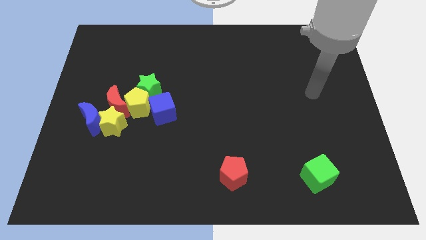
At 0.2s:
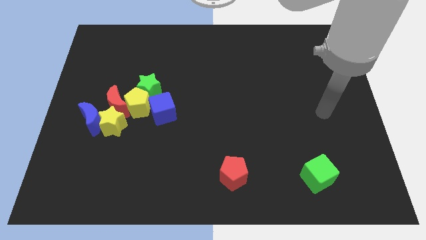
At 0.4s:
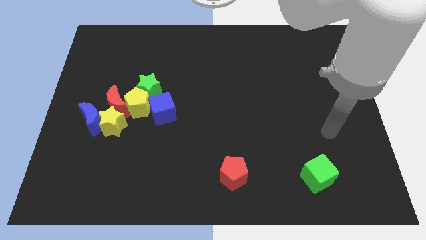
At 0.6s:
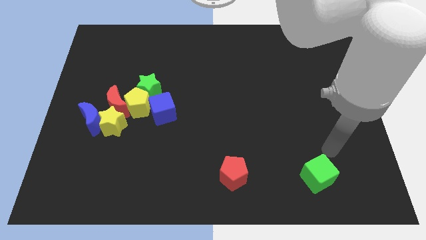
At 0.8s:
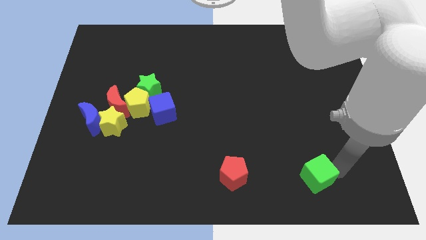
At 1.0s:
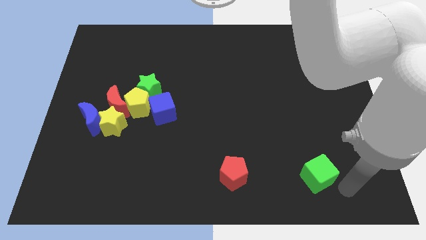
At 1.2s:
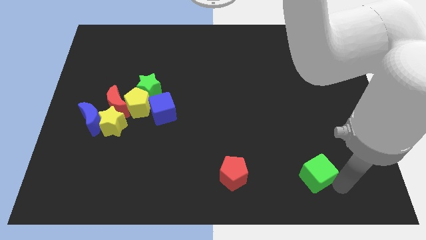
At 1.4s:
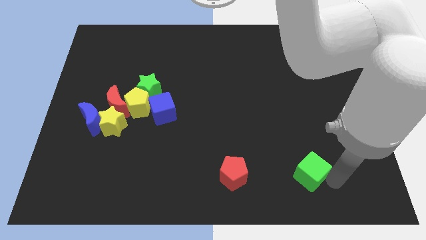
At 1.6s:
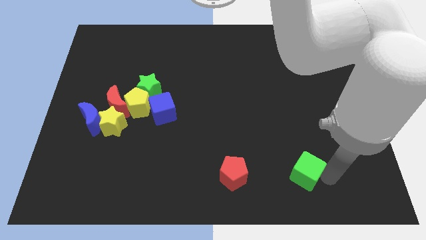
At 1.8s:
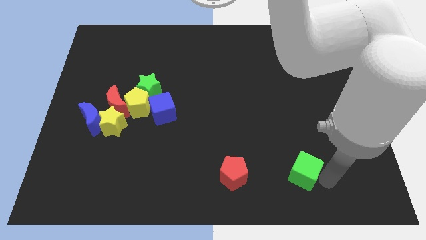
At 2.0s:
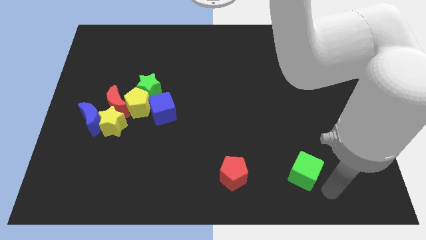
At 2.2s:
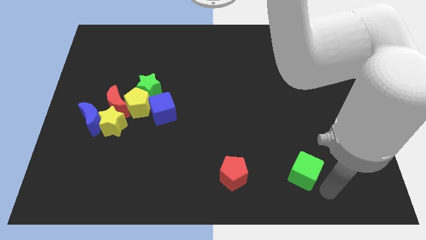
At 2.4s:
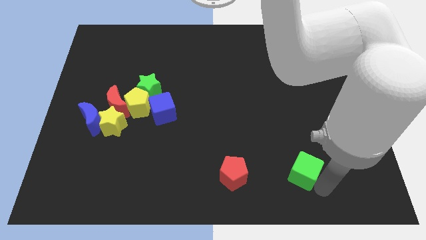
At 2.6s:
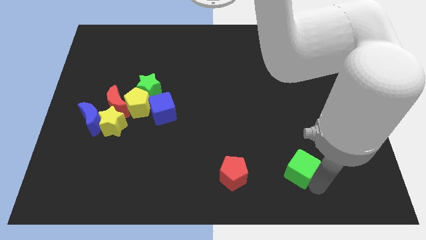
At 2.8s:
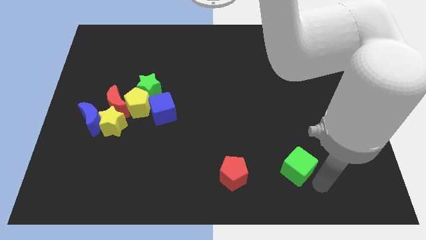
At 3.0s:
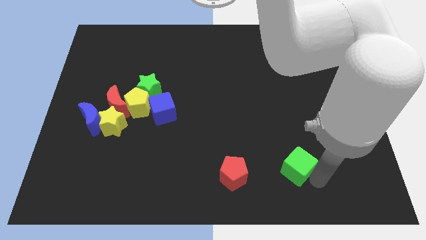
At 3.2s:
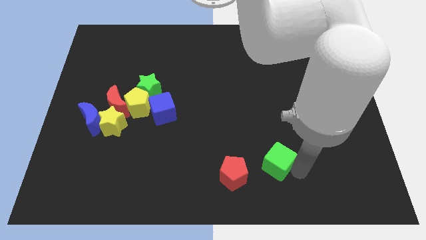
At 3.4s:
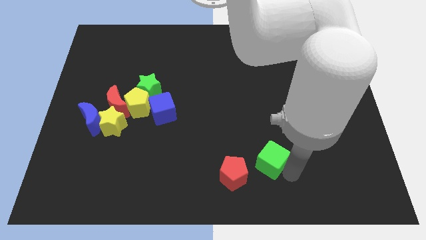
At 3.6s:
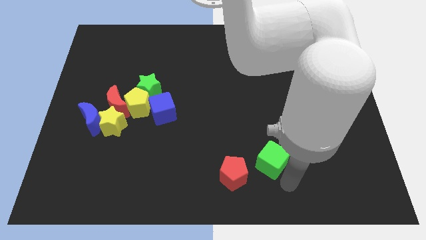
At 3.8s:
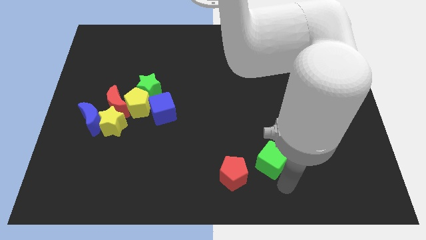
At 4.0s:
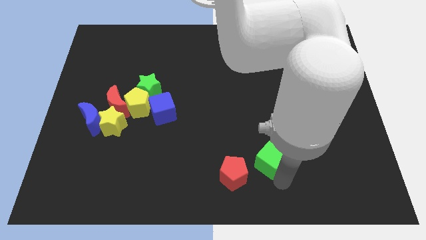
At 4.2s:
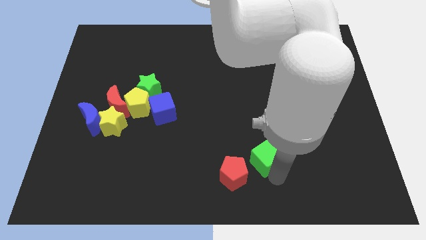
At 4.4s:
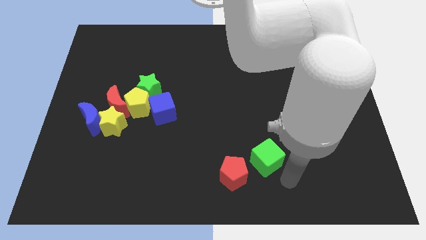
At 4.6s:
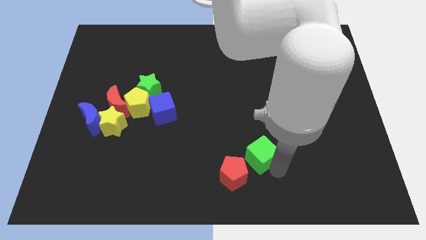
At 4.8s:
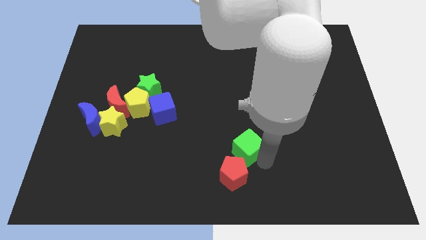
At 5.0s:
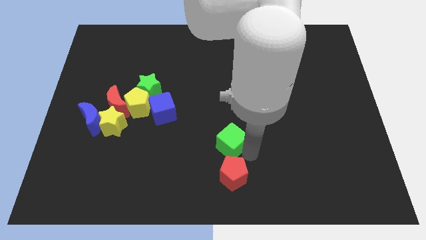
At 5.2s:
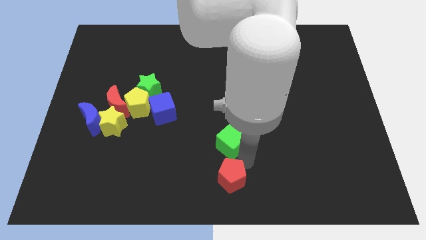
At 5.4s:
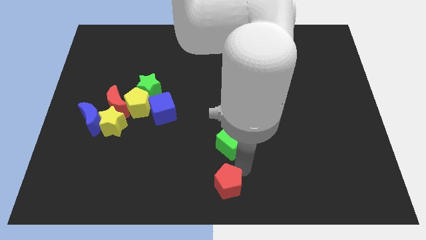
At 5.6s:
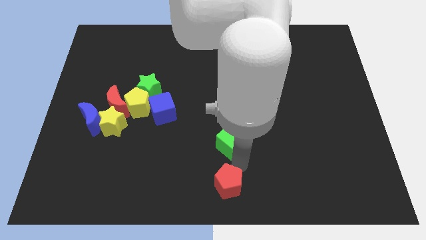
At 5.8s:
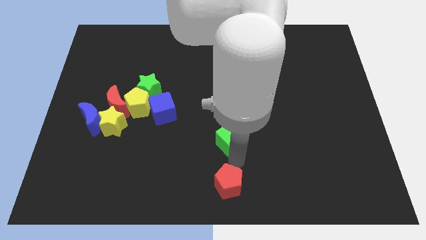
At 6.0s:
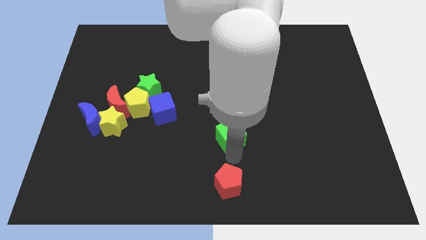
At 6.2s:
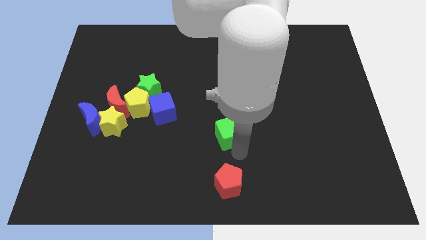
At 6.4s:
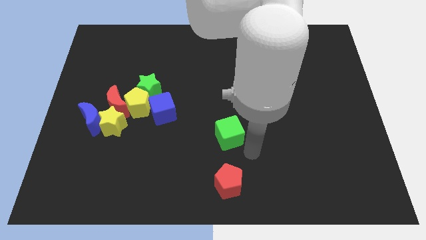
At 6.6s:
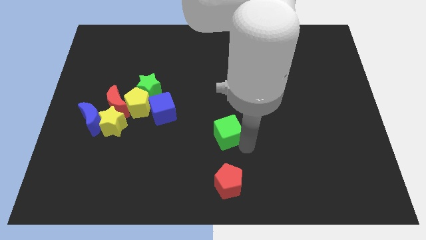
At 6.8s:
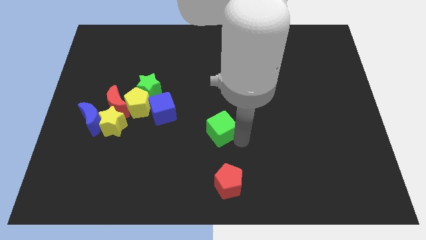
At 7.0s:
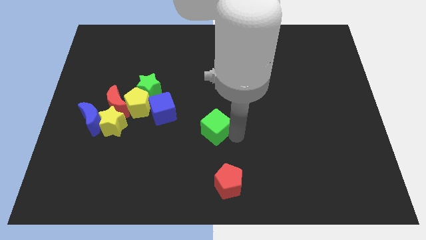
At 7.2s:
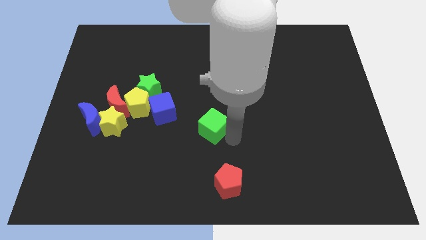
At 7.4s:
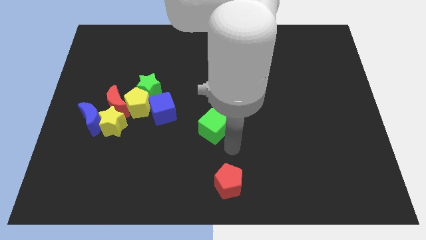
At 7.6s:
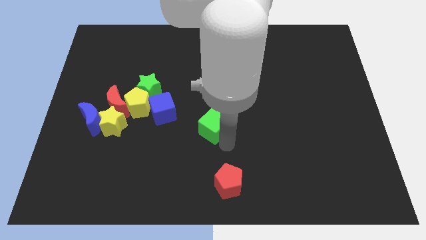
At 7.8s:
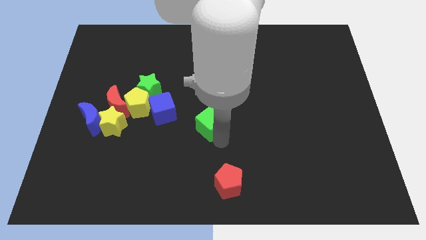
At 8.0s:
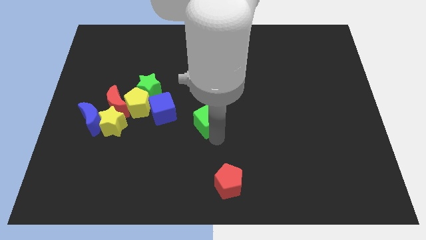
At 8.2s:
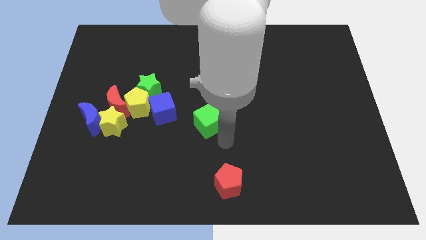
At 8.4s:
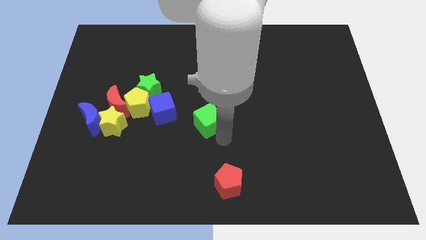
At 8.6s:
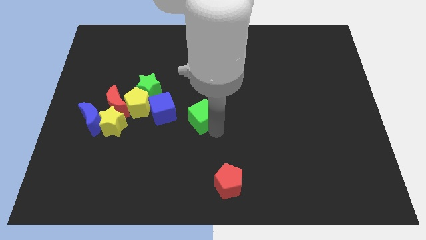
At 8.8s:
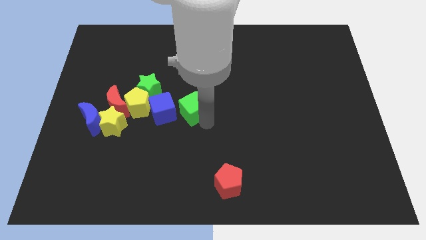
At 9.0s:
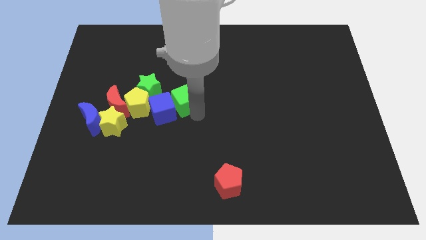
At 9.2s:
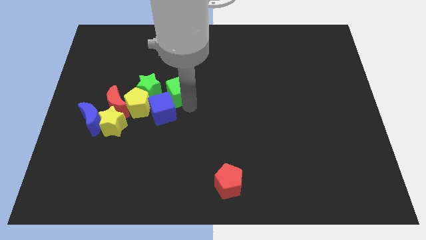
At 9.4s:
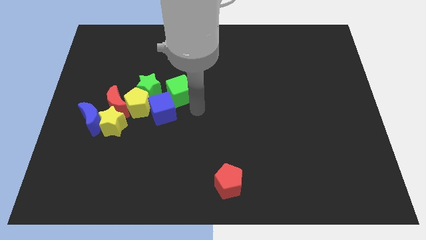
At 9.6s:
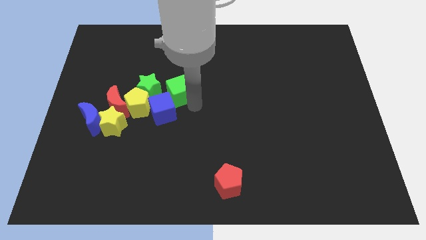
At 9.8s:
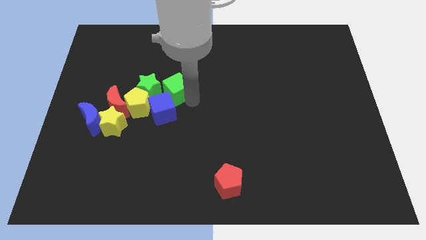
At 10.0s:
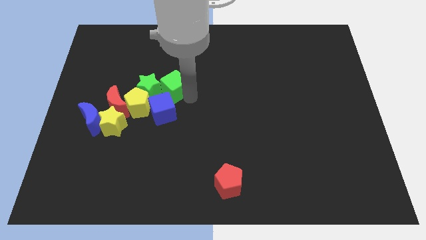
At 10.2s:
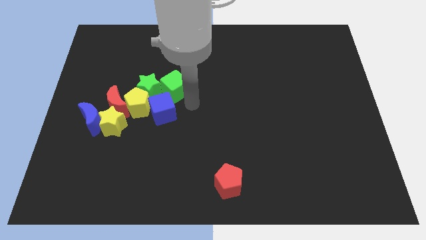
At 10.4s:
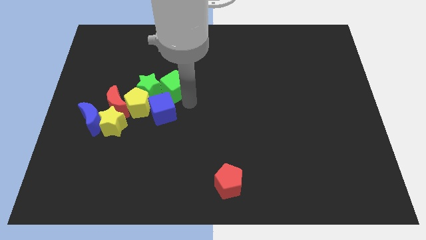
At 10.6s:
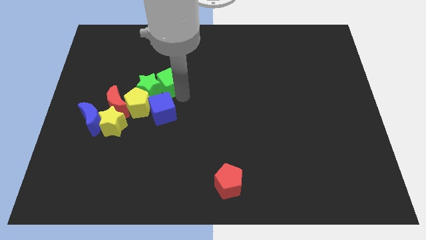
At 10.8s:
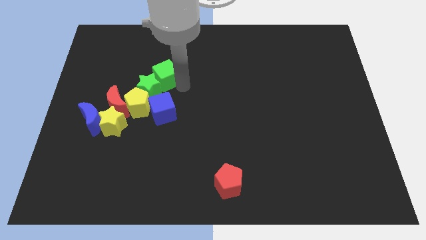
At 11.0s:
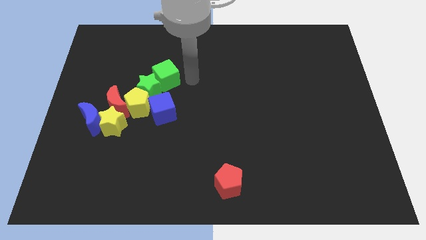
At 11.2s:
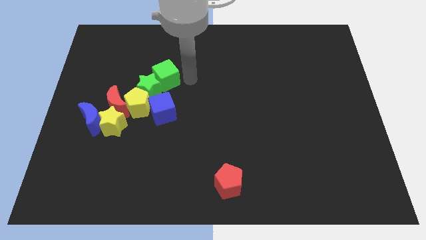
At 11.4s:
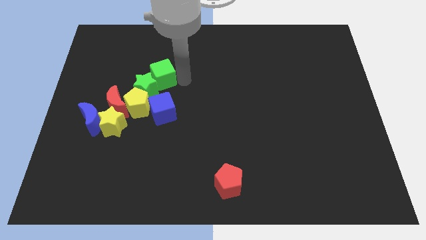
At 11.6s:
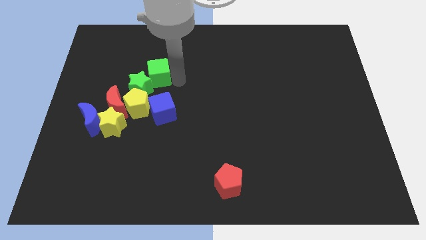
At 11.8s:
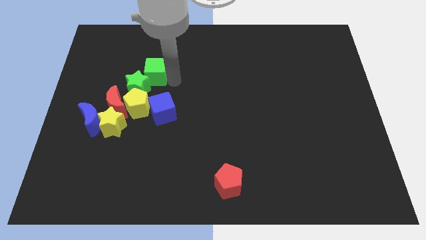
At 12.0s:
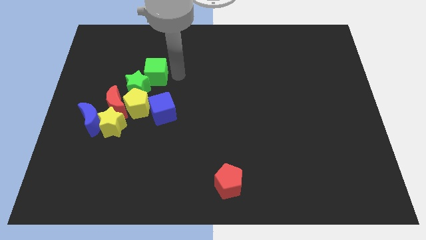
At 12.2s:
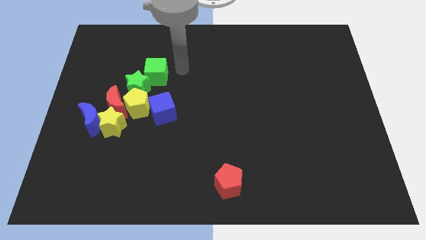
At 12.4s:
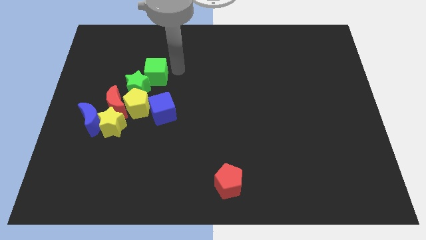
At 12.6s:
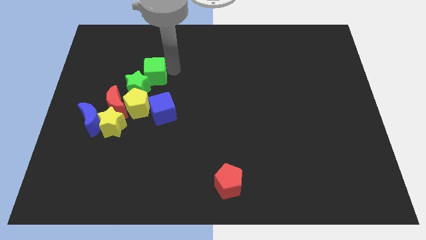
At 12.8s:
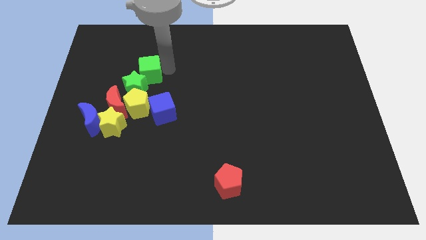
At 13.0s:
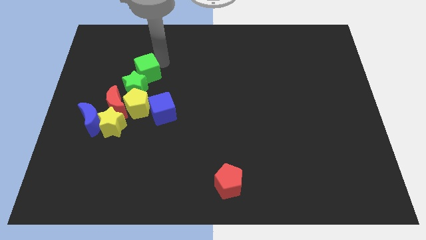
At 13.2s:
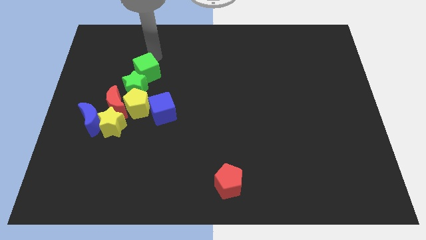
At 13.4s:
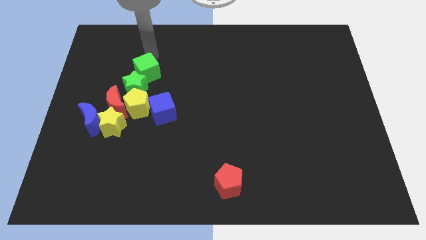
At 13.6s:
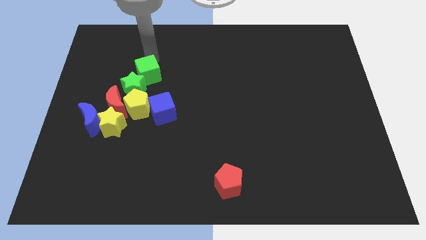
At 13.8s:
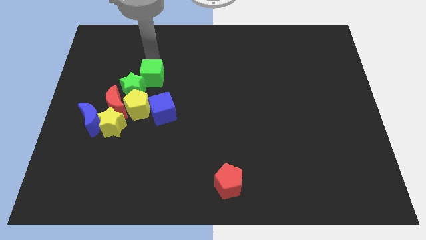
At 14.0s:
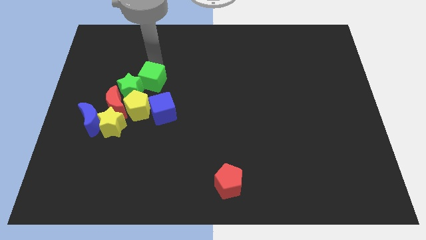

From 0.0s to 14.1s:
push the green cube to the top left of the blue cube
